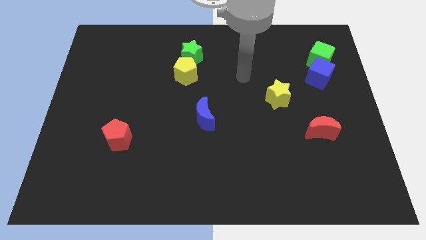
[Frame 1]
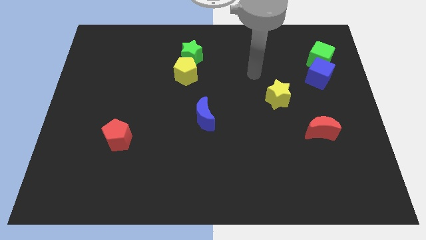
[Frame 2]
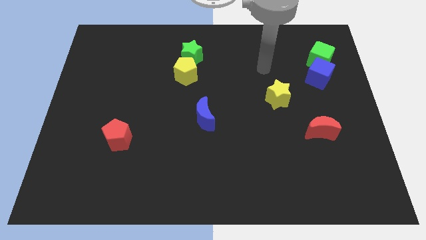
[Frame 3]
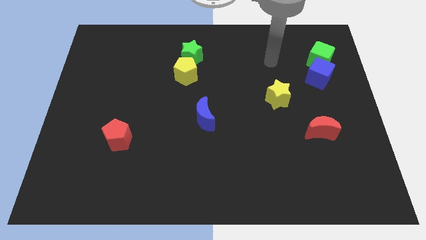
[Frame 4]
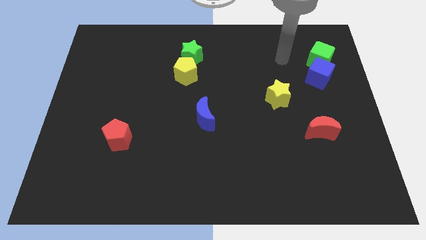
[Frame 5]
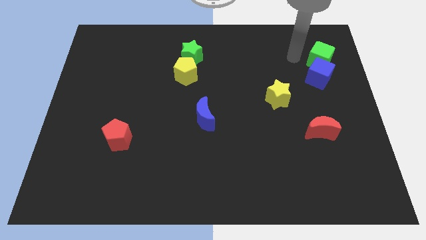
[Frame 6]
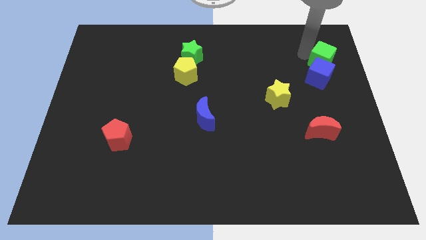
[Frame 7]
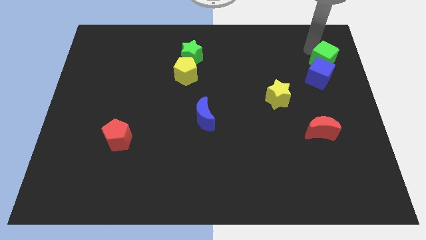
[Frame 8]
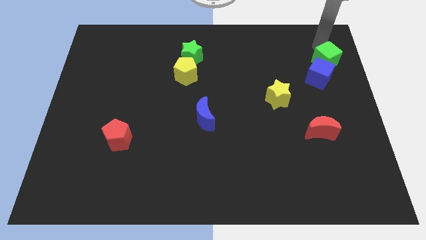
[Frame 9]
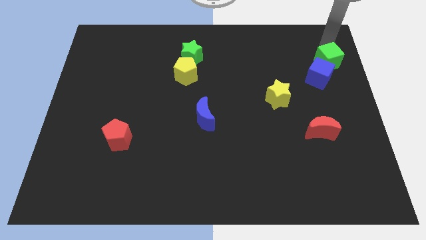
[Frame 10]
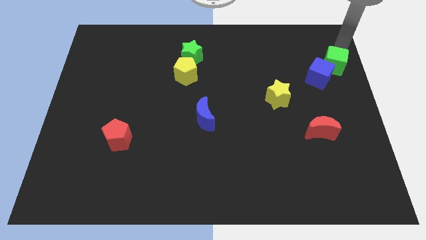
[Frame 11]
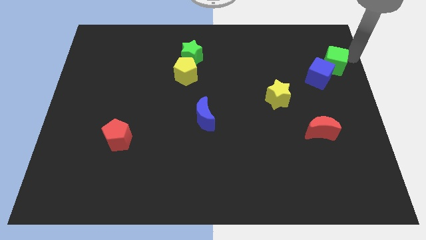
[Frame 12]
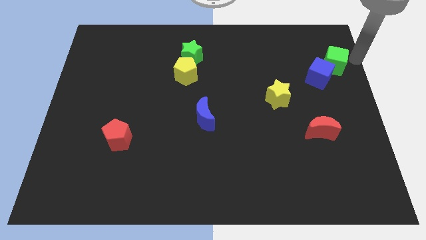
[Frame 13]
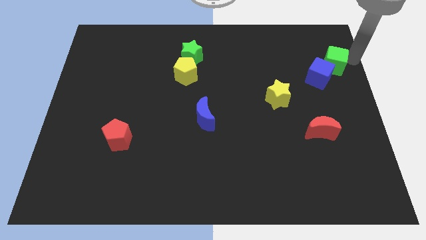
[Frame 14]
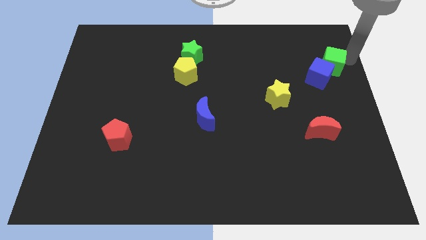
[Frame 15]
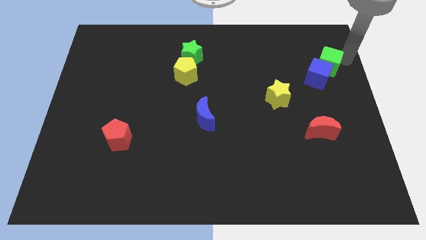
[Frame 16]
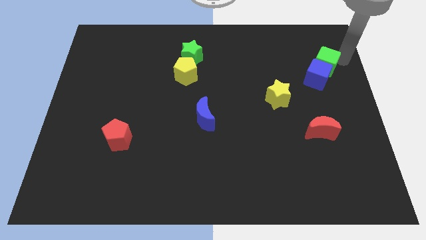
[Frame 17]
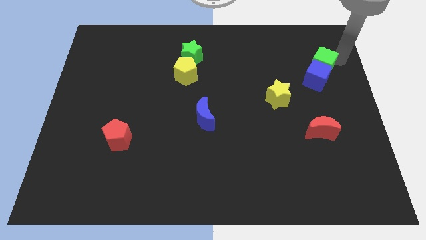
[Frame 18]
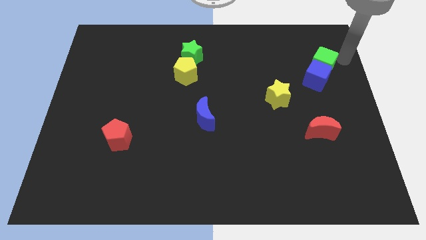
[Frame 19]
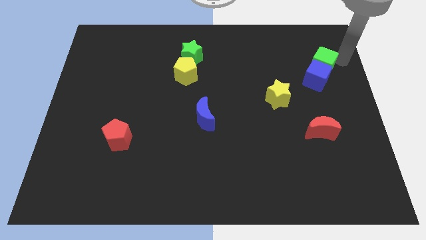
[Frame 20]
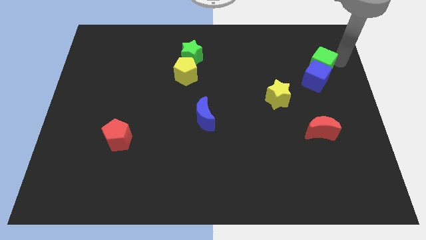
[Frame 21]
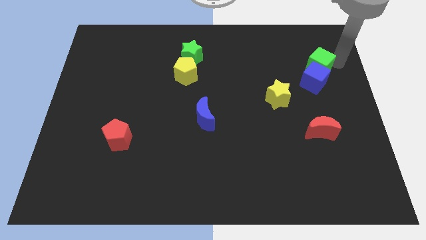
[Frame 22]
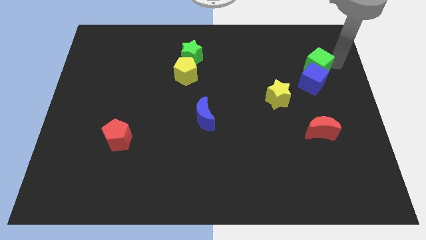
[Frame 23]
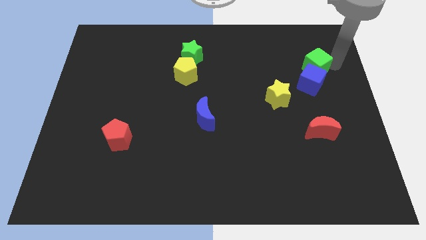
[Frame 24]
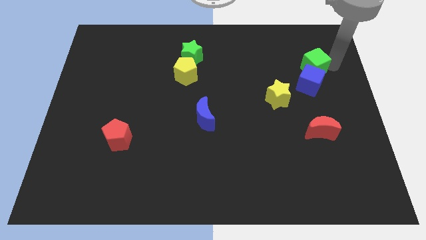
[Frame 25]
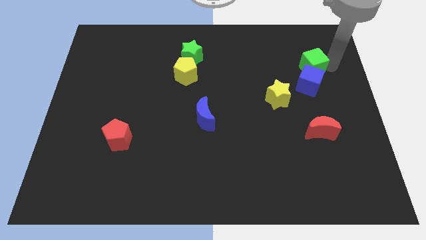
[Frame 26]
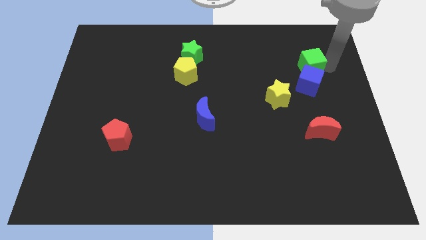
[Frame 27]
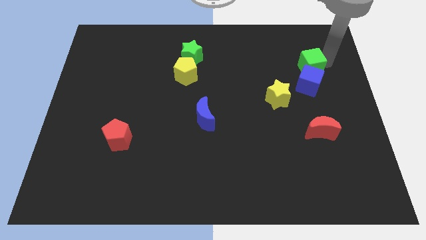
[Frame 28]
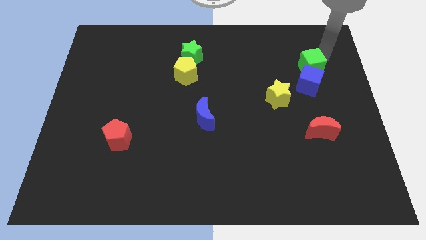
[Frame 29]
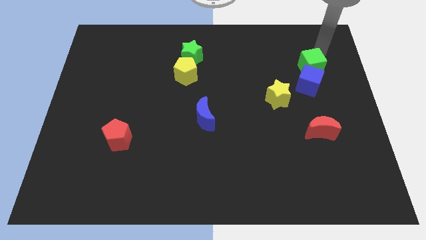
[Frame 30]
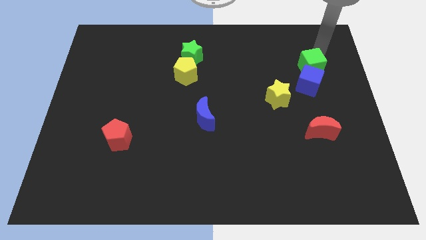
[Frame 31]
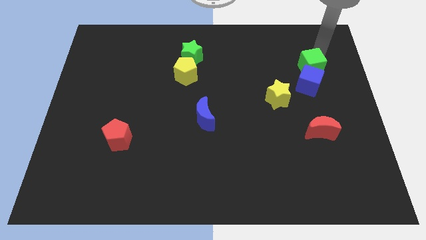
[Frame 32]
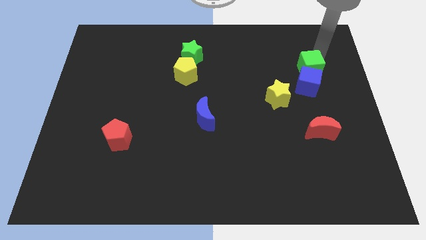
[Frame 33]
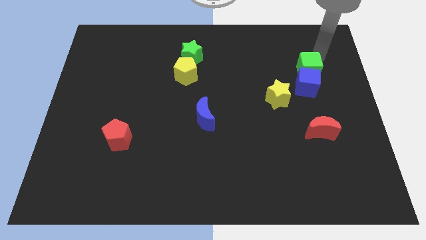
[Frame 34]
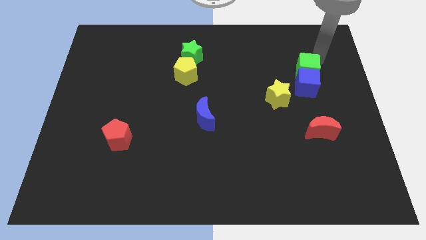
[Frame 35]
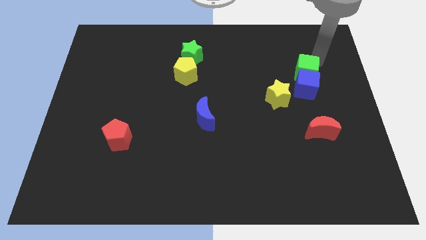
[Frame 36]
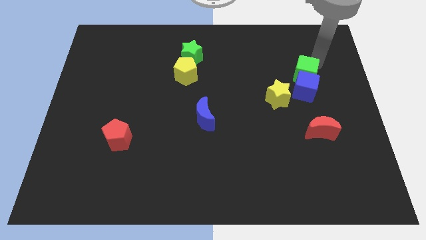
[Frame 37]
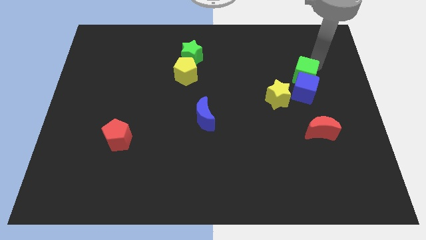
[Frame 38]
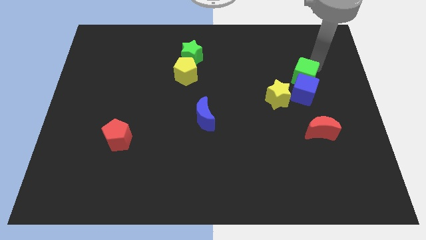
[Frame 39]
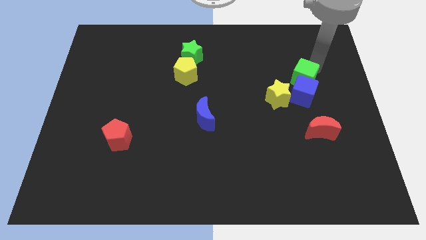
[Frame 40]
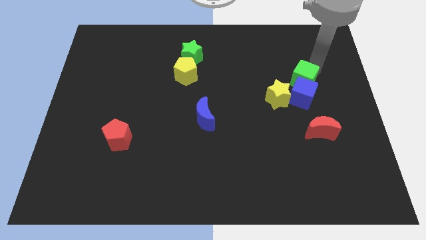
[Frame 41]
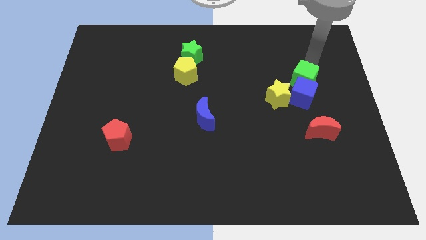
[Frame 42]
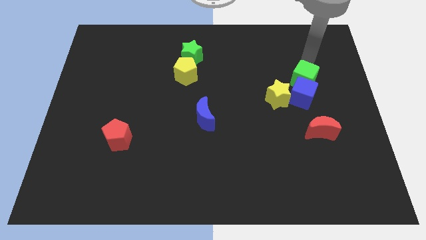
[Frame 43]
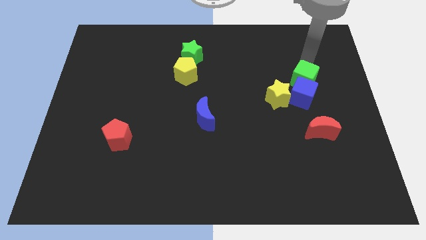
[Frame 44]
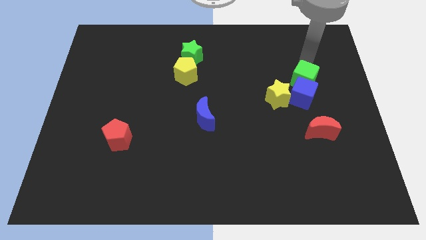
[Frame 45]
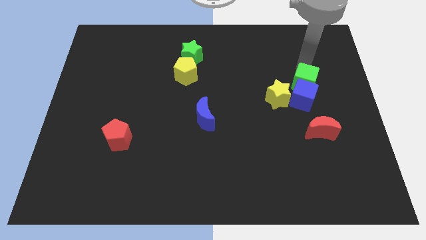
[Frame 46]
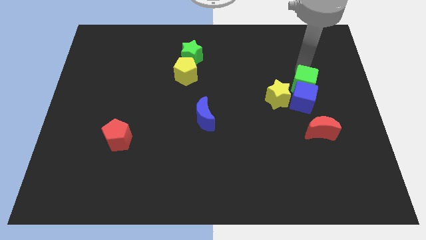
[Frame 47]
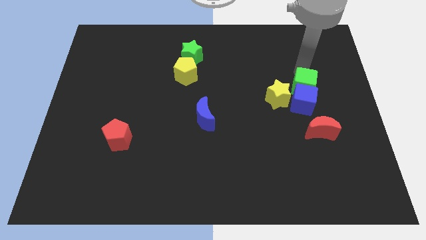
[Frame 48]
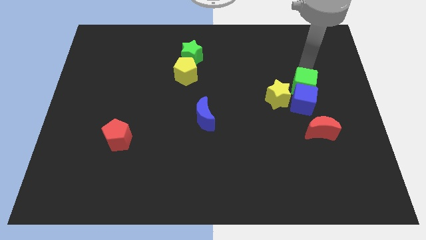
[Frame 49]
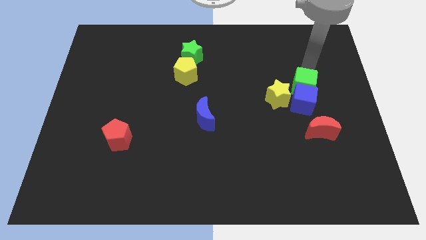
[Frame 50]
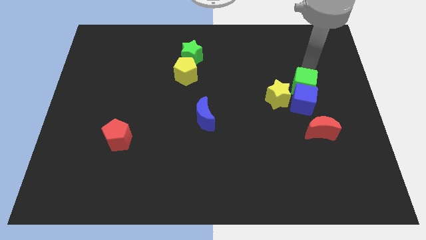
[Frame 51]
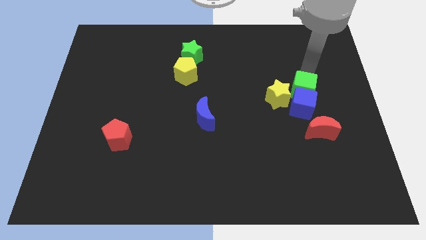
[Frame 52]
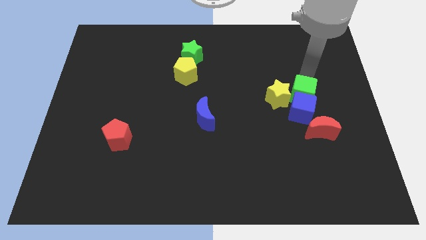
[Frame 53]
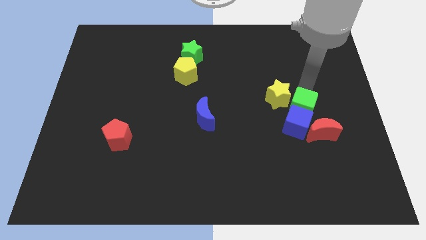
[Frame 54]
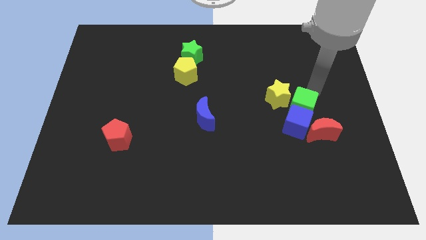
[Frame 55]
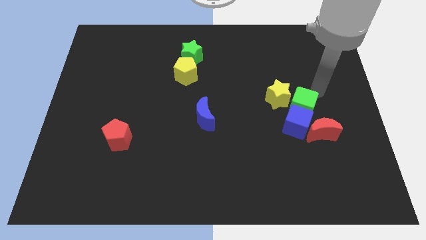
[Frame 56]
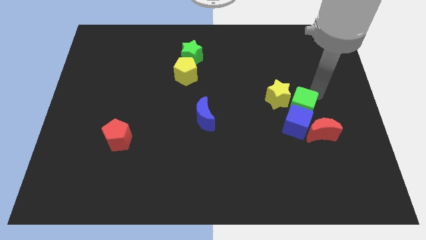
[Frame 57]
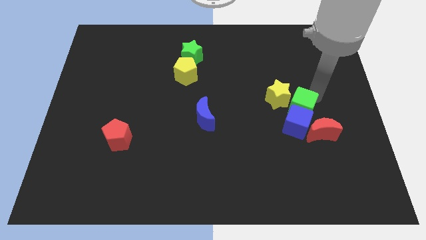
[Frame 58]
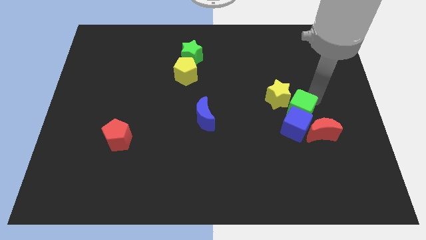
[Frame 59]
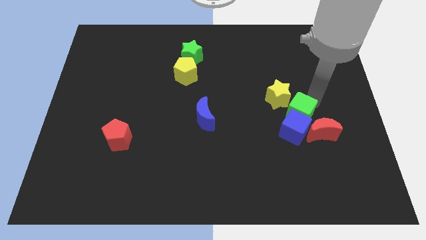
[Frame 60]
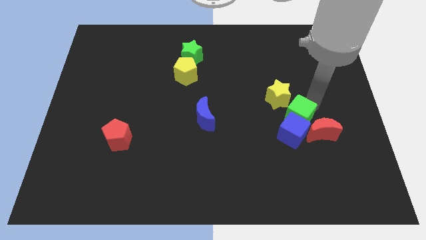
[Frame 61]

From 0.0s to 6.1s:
push the green cube to the left side of the red moon
